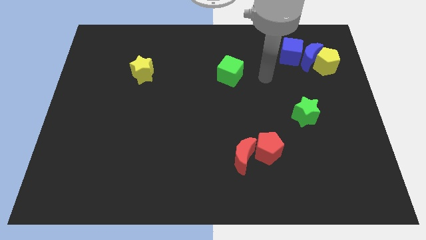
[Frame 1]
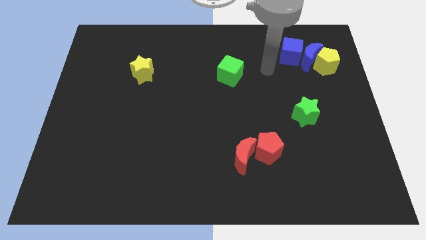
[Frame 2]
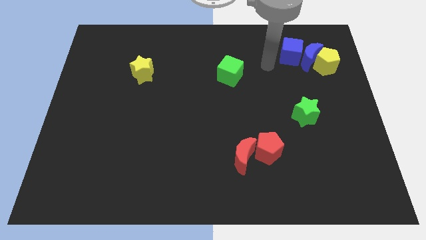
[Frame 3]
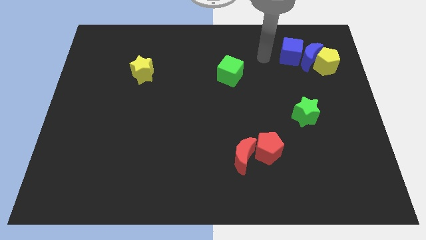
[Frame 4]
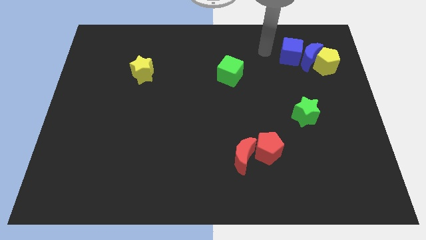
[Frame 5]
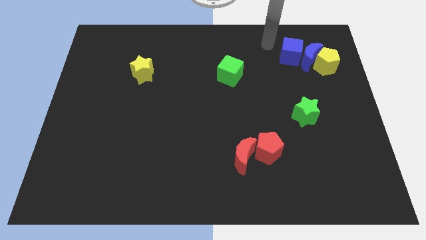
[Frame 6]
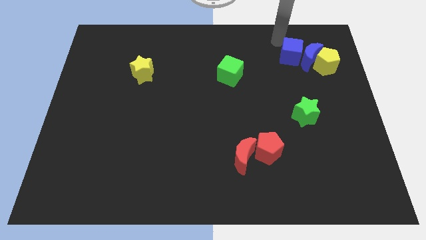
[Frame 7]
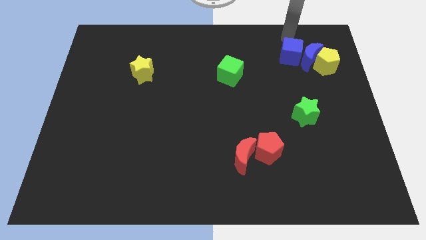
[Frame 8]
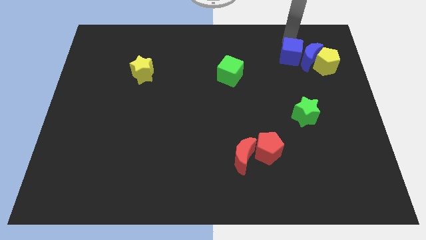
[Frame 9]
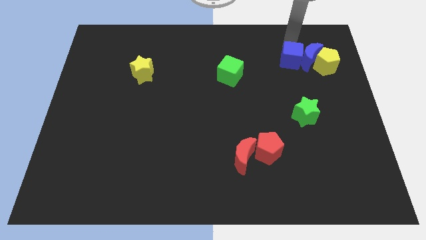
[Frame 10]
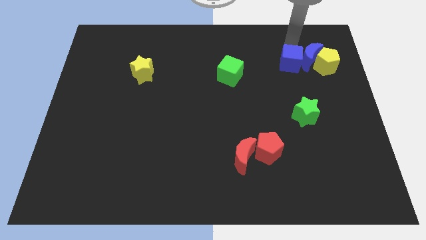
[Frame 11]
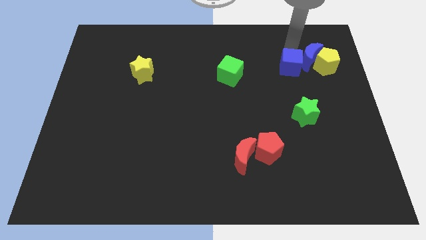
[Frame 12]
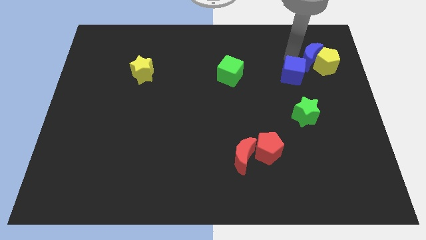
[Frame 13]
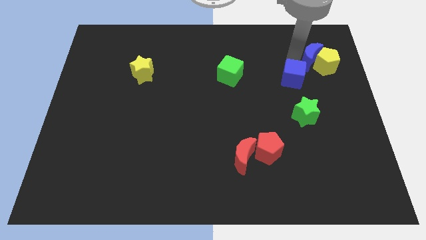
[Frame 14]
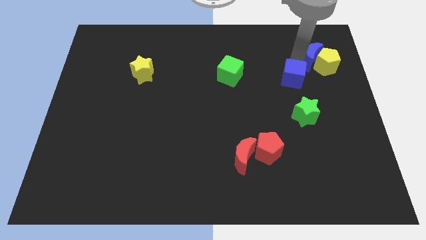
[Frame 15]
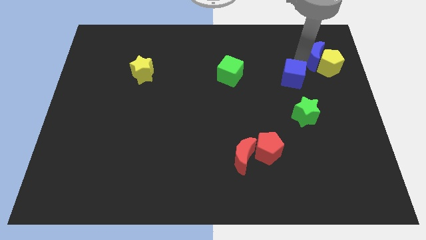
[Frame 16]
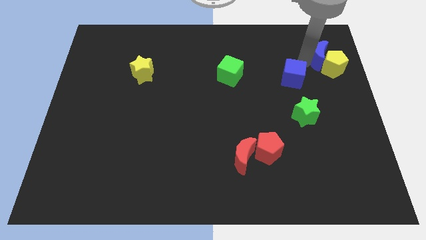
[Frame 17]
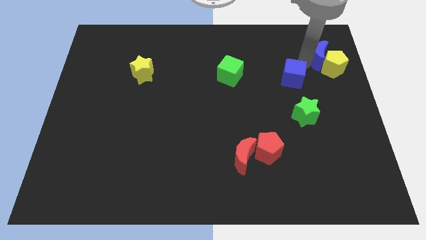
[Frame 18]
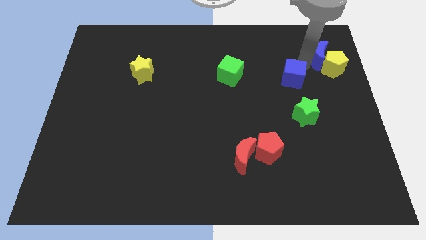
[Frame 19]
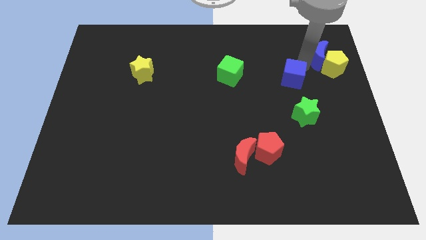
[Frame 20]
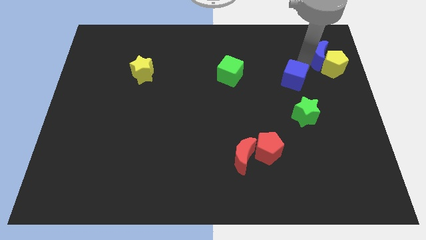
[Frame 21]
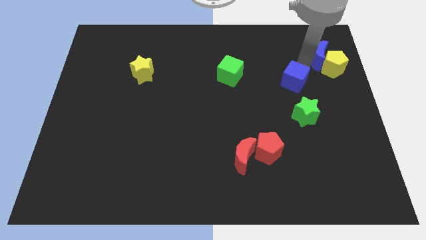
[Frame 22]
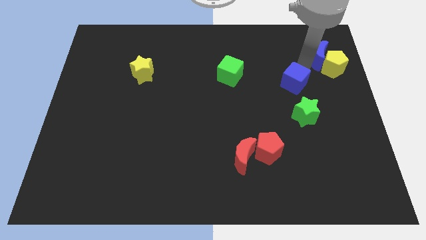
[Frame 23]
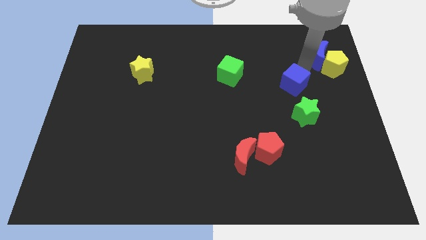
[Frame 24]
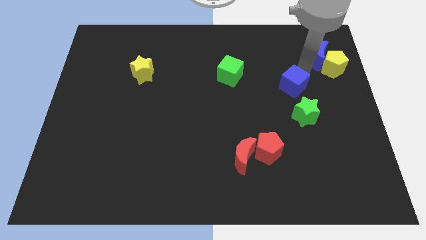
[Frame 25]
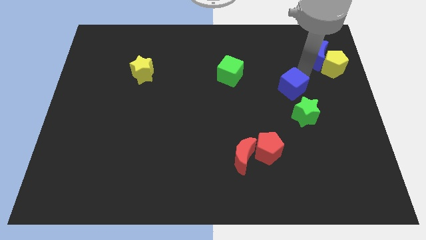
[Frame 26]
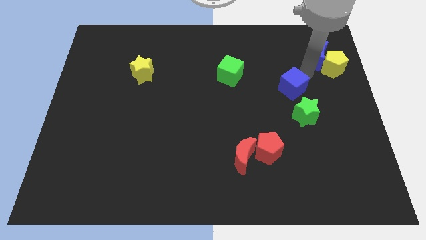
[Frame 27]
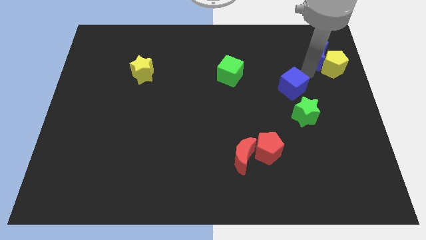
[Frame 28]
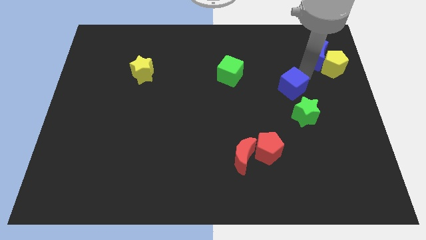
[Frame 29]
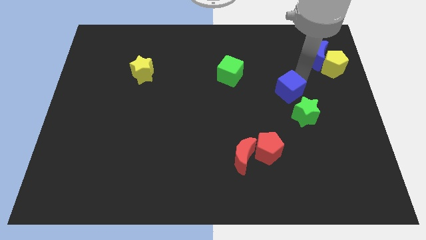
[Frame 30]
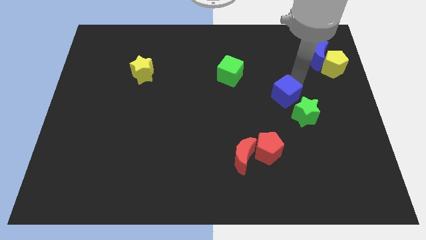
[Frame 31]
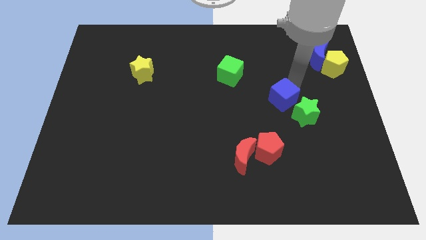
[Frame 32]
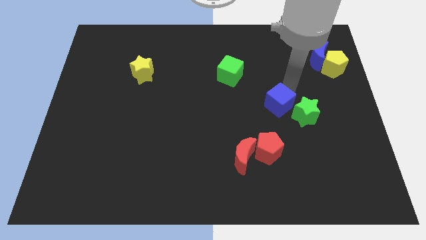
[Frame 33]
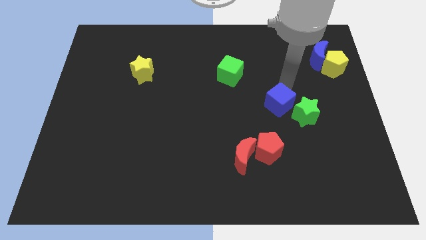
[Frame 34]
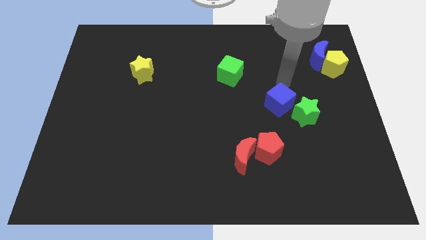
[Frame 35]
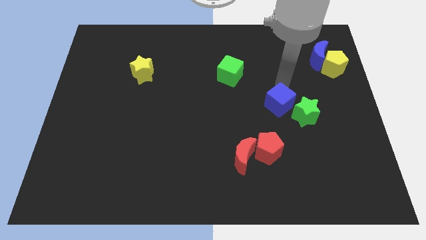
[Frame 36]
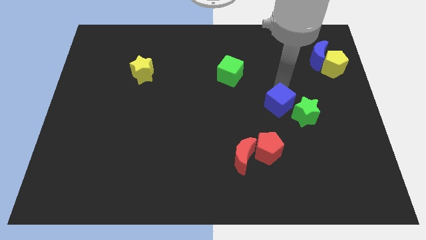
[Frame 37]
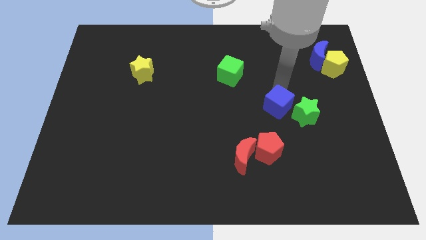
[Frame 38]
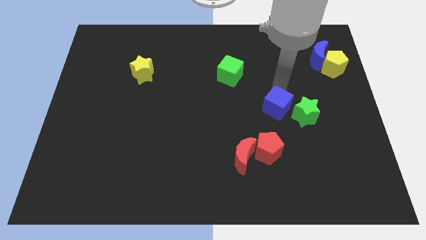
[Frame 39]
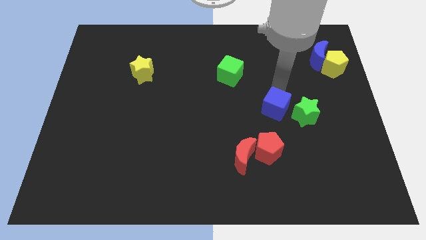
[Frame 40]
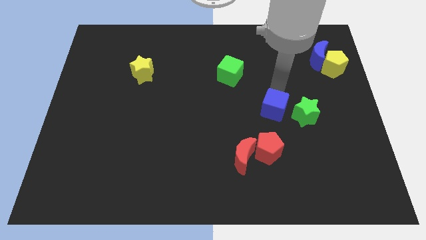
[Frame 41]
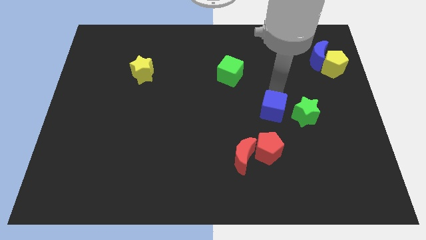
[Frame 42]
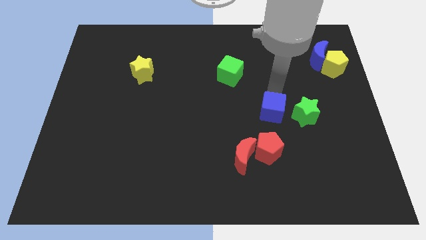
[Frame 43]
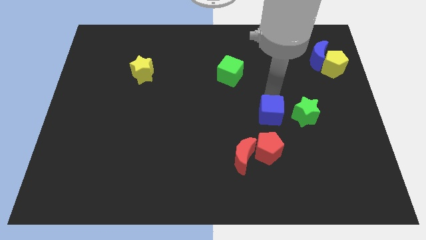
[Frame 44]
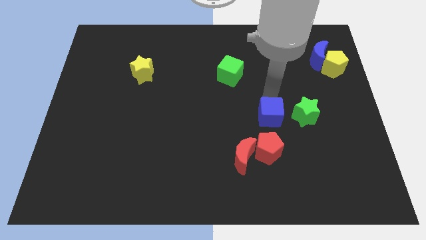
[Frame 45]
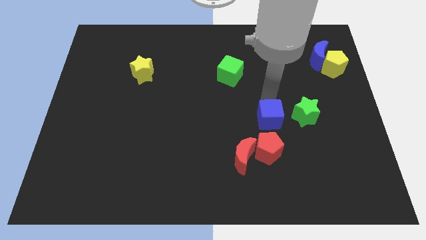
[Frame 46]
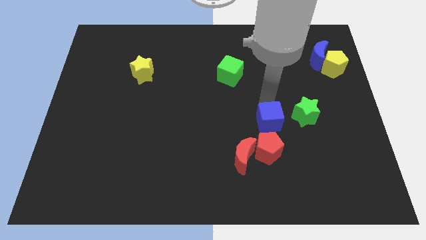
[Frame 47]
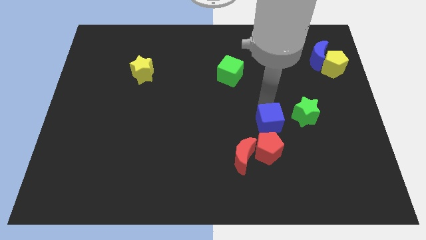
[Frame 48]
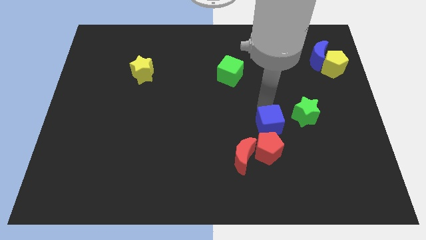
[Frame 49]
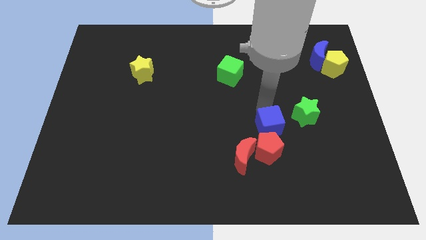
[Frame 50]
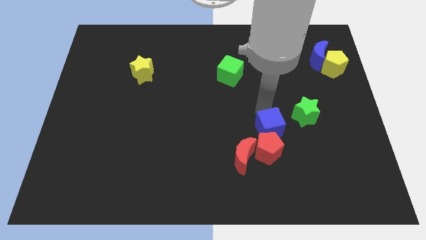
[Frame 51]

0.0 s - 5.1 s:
push the blue cube close to the red pentagon

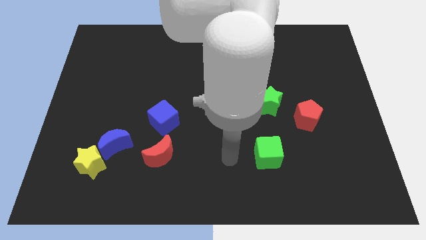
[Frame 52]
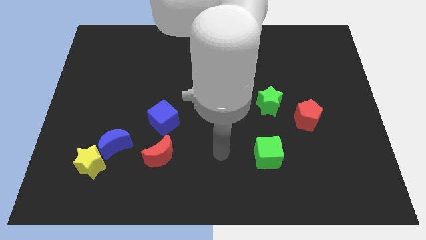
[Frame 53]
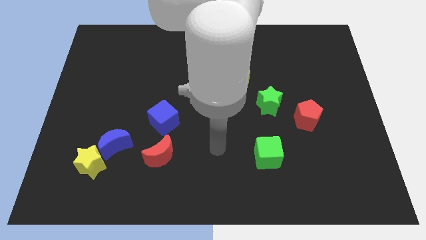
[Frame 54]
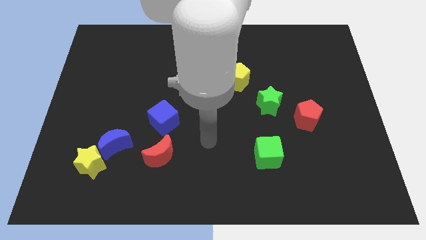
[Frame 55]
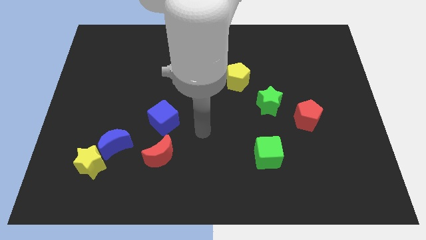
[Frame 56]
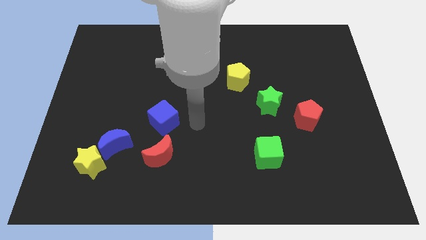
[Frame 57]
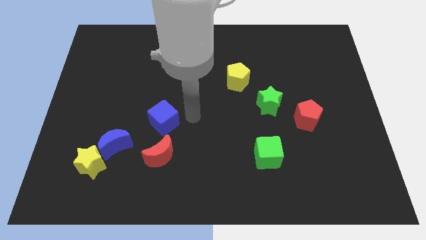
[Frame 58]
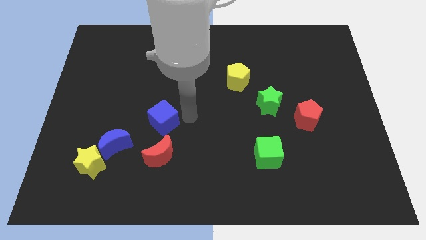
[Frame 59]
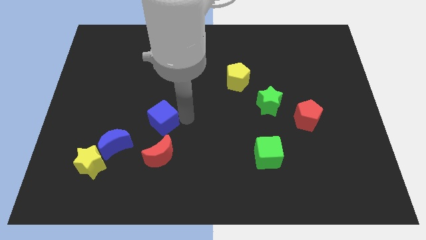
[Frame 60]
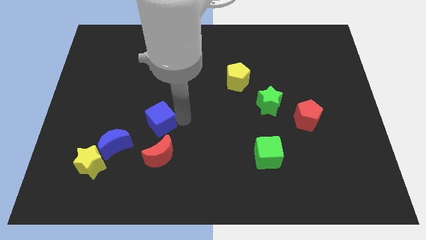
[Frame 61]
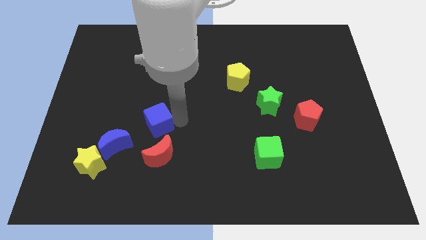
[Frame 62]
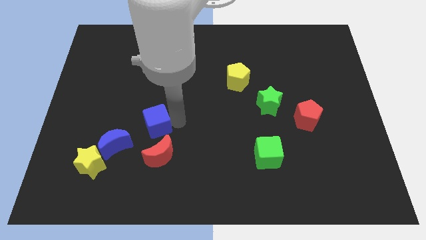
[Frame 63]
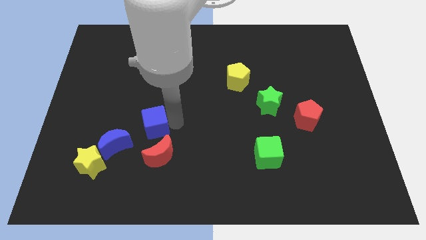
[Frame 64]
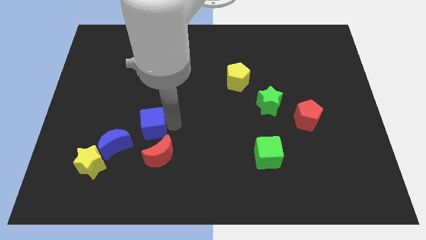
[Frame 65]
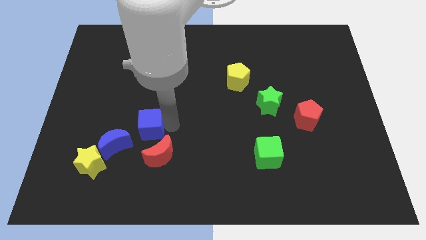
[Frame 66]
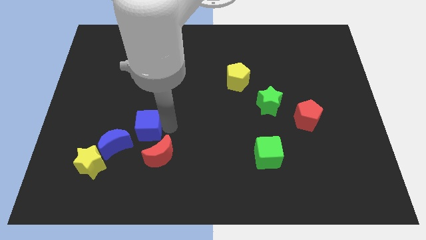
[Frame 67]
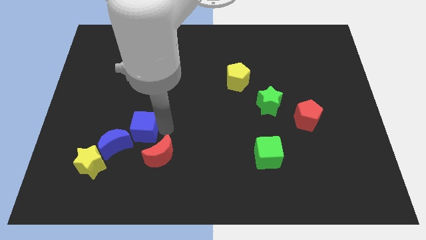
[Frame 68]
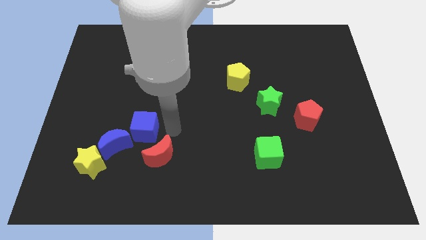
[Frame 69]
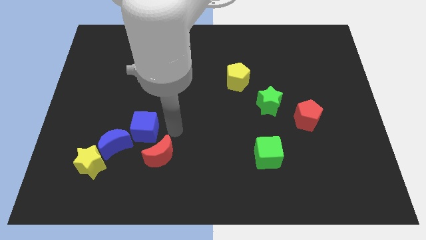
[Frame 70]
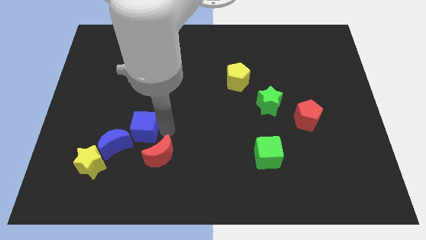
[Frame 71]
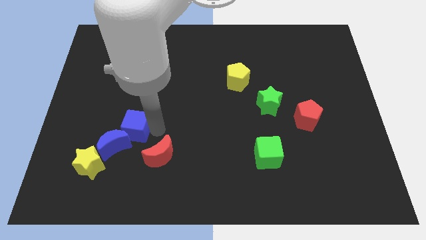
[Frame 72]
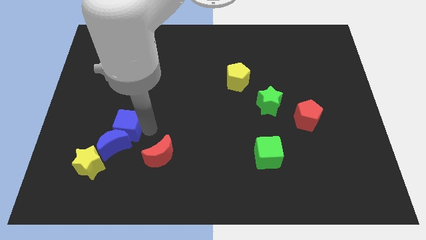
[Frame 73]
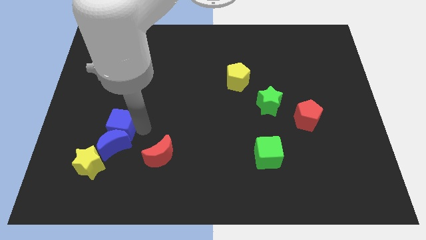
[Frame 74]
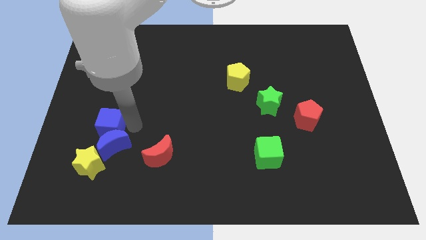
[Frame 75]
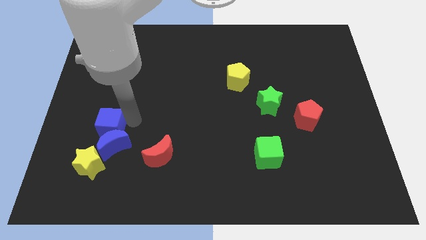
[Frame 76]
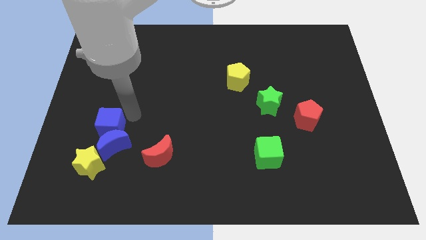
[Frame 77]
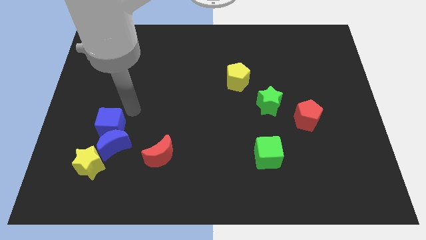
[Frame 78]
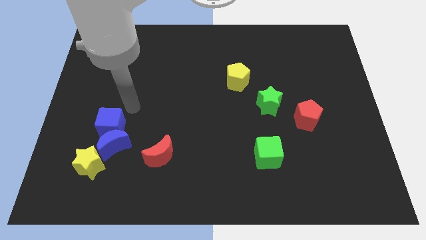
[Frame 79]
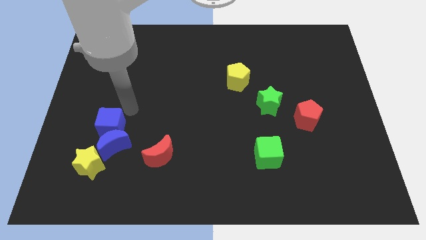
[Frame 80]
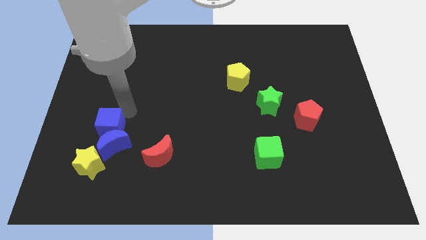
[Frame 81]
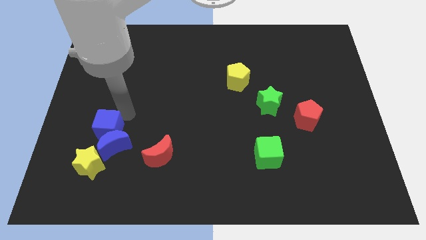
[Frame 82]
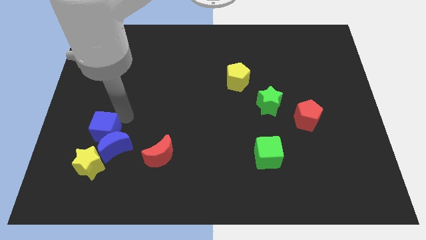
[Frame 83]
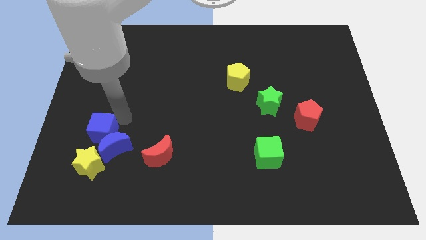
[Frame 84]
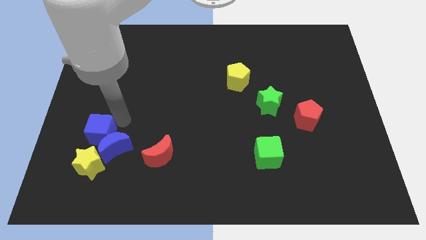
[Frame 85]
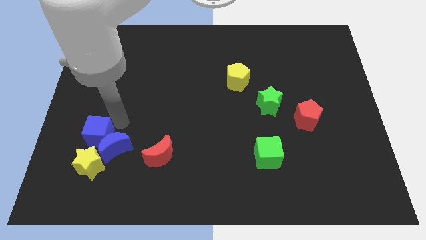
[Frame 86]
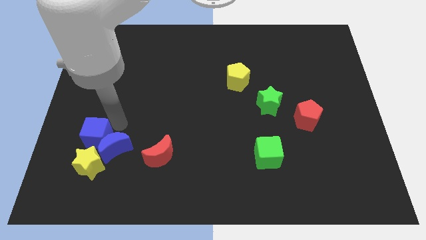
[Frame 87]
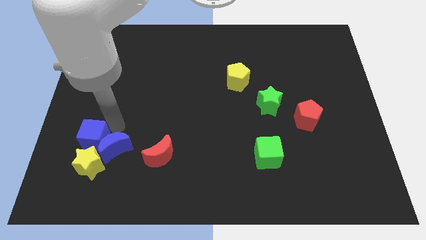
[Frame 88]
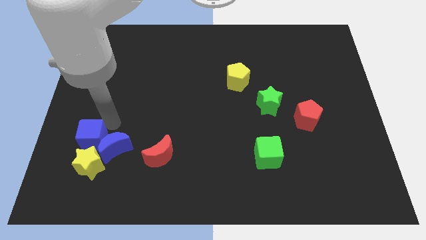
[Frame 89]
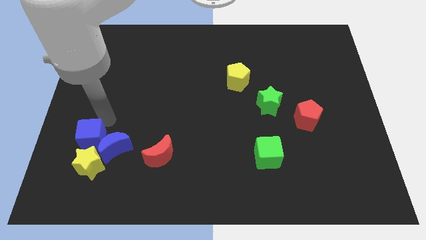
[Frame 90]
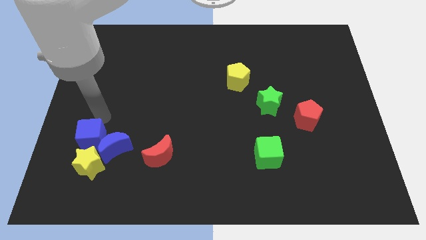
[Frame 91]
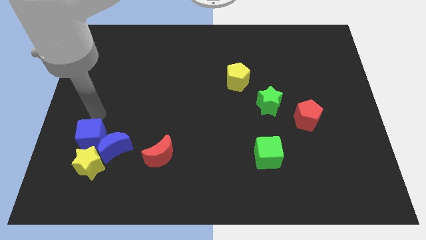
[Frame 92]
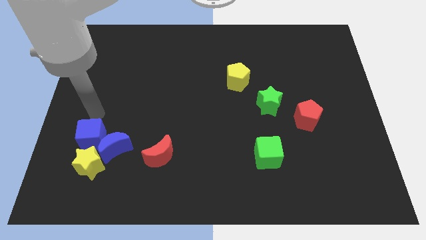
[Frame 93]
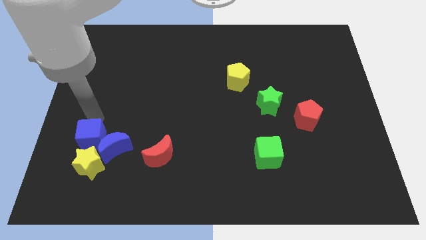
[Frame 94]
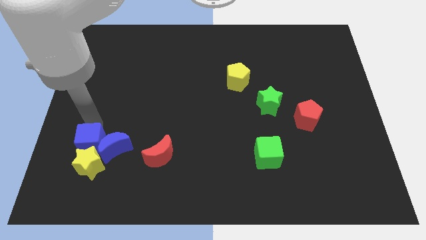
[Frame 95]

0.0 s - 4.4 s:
move the blue cube next to the yellow star
